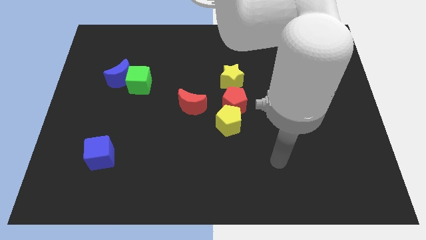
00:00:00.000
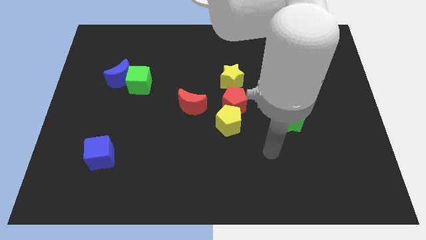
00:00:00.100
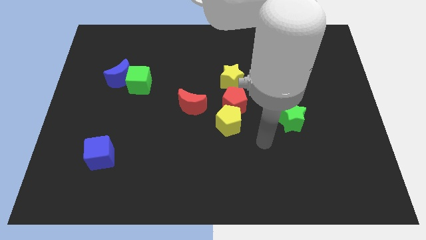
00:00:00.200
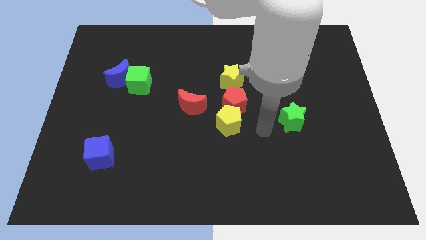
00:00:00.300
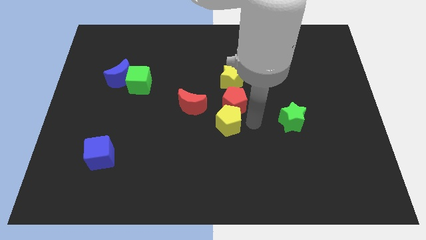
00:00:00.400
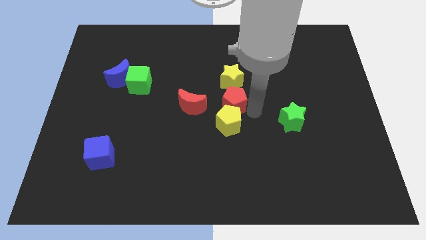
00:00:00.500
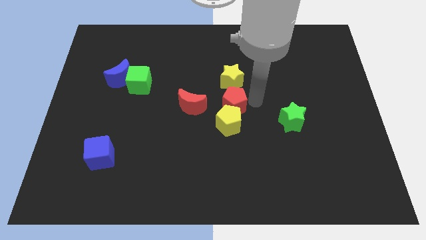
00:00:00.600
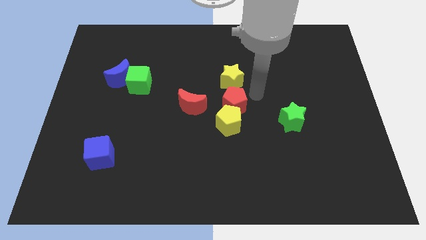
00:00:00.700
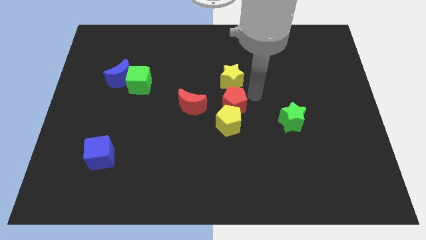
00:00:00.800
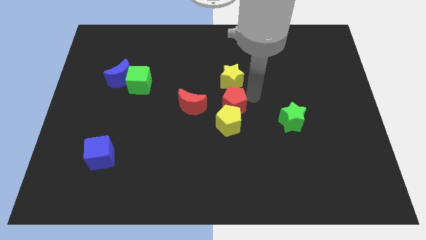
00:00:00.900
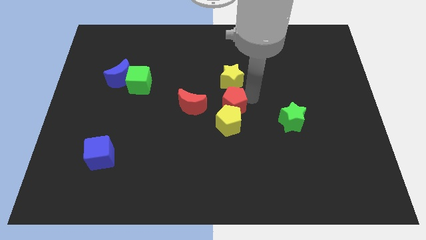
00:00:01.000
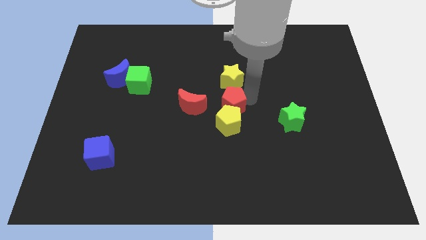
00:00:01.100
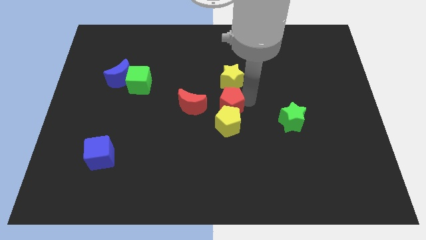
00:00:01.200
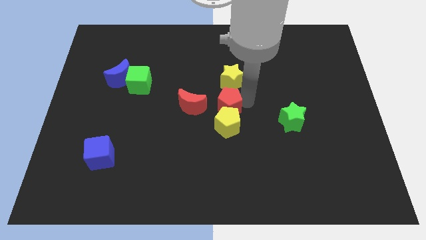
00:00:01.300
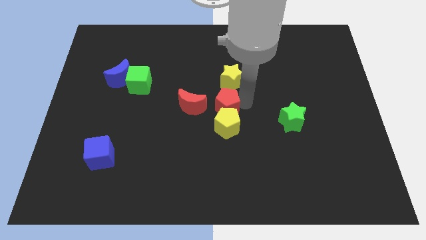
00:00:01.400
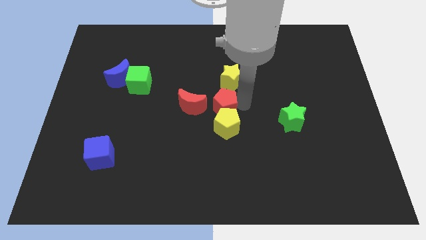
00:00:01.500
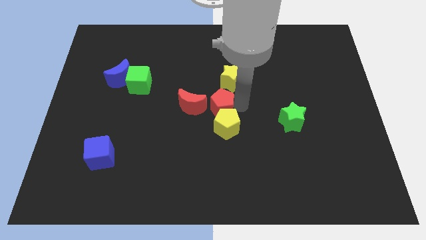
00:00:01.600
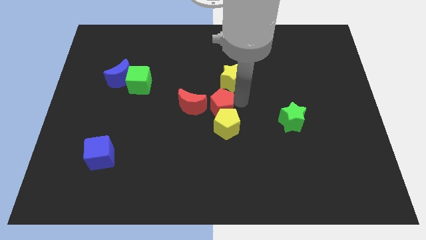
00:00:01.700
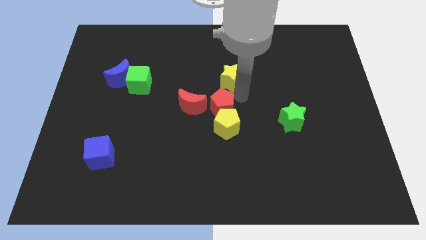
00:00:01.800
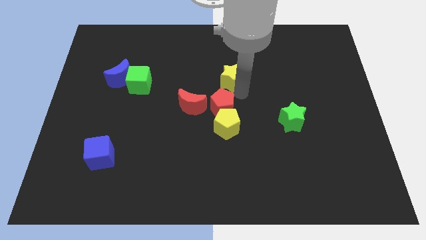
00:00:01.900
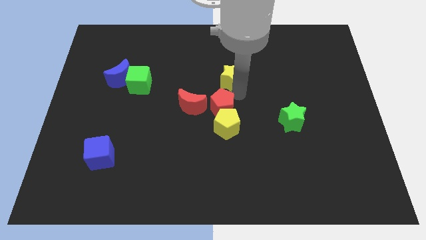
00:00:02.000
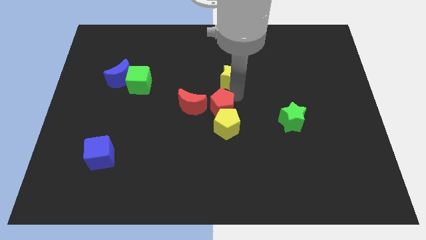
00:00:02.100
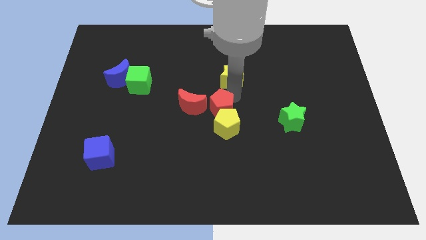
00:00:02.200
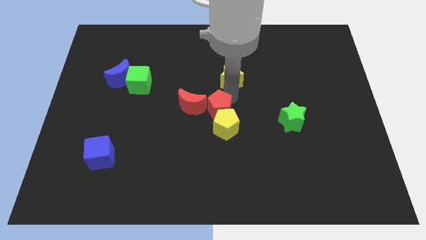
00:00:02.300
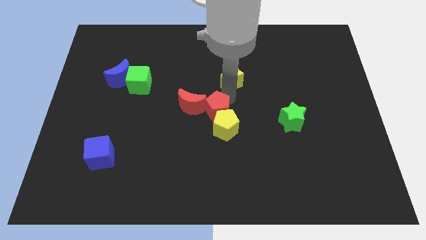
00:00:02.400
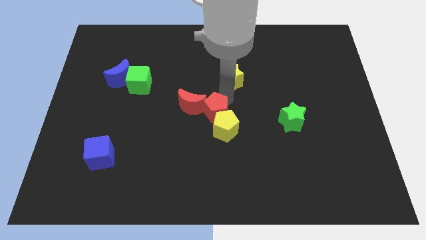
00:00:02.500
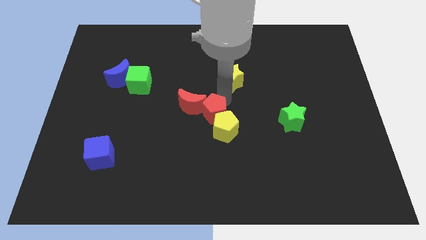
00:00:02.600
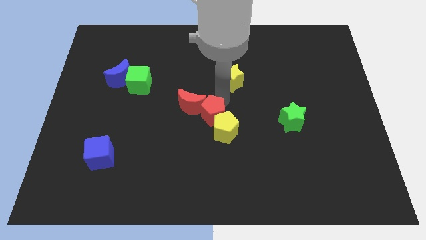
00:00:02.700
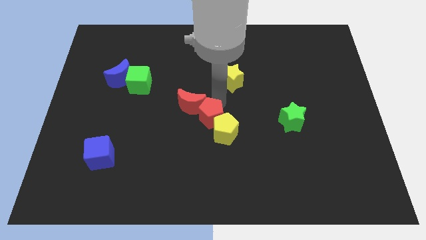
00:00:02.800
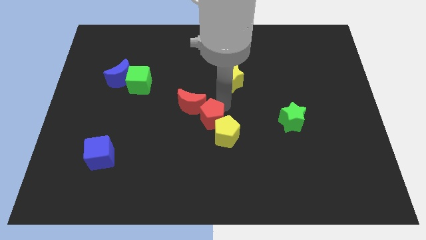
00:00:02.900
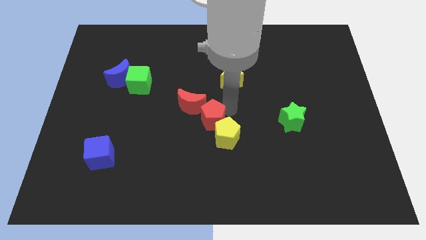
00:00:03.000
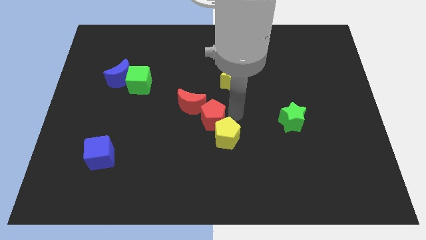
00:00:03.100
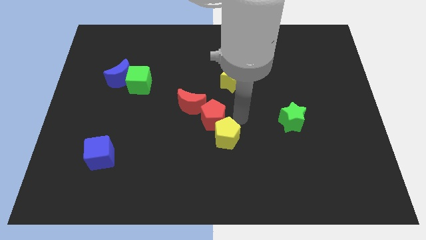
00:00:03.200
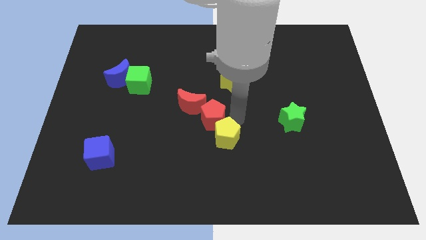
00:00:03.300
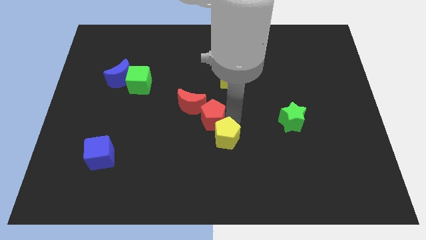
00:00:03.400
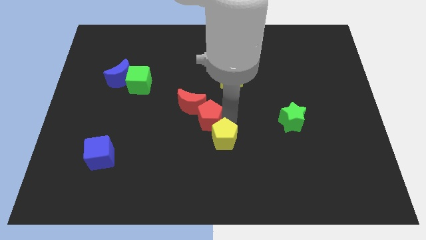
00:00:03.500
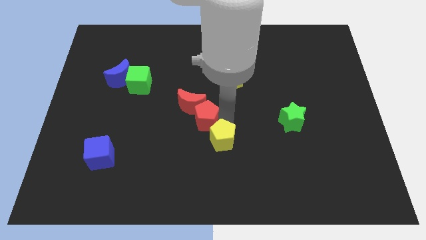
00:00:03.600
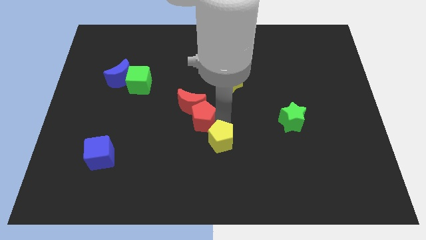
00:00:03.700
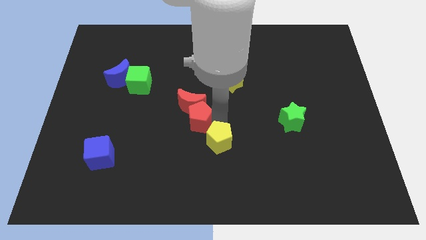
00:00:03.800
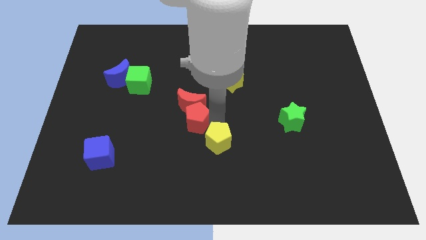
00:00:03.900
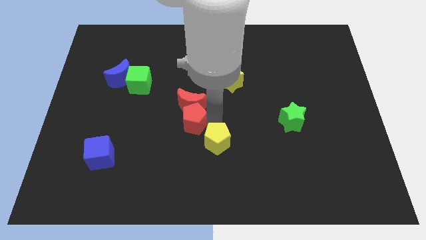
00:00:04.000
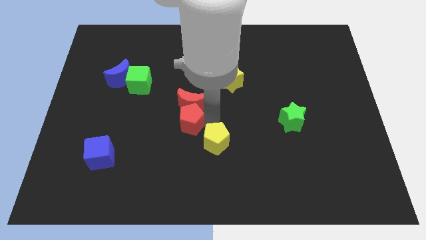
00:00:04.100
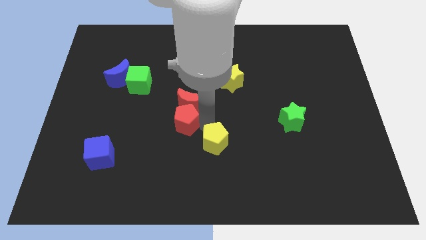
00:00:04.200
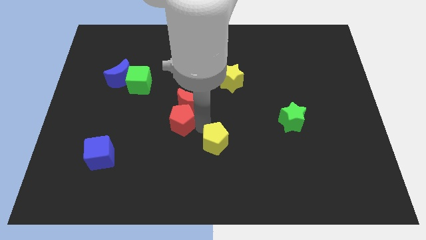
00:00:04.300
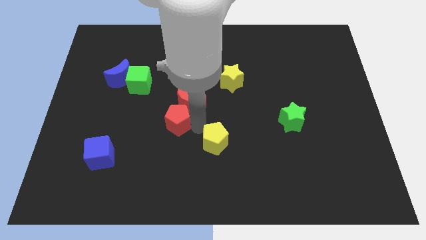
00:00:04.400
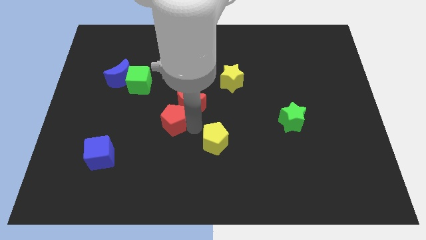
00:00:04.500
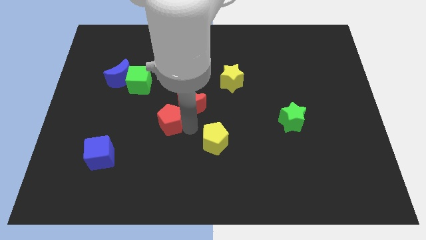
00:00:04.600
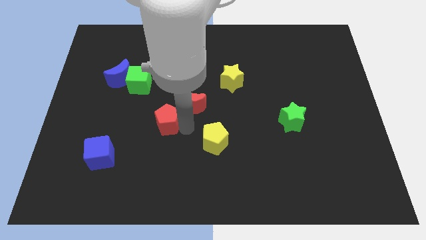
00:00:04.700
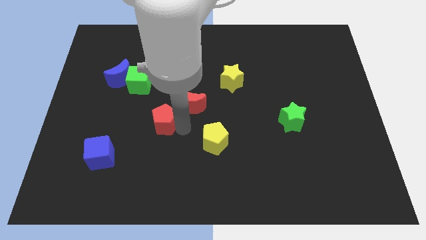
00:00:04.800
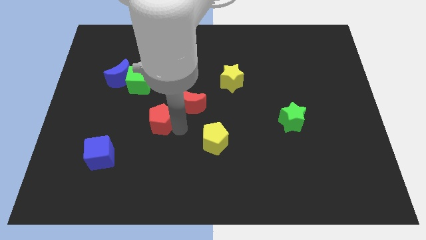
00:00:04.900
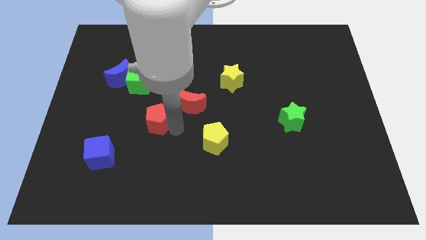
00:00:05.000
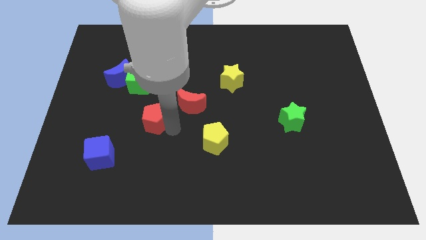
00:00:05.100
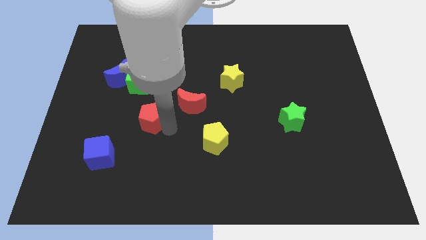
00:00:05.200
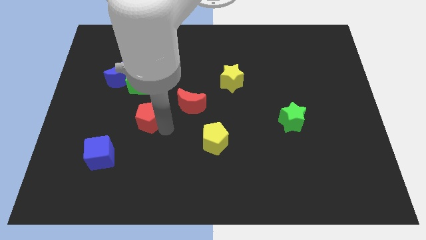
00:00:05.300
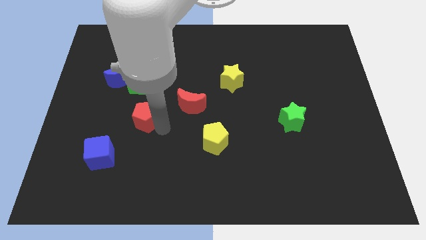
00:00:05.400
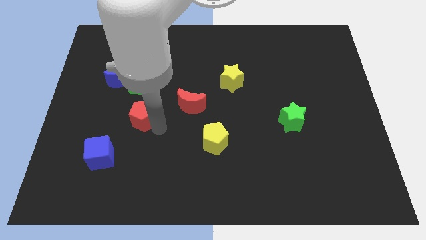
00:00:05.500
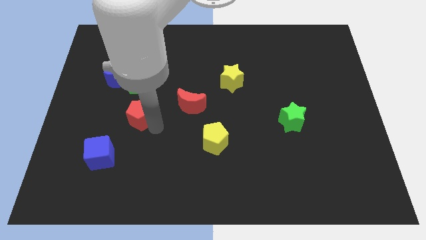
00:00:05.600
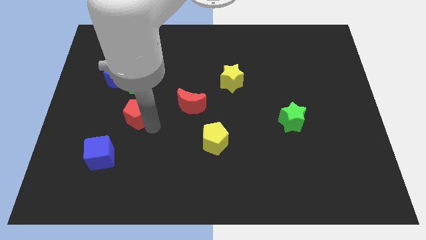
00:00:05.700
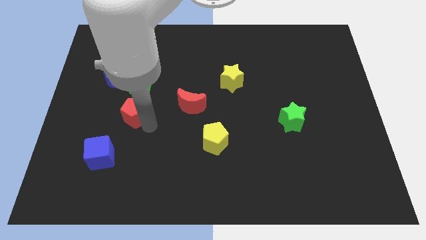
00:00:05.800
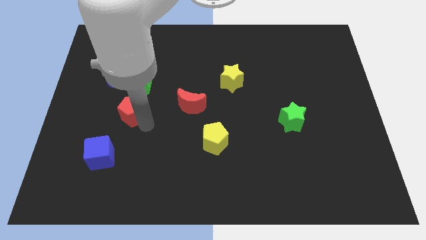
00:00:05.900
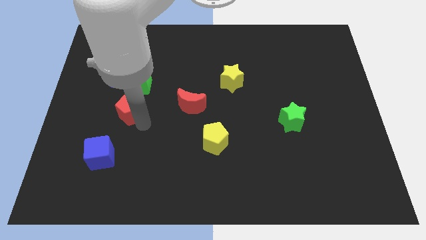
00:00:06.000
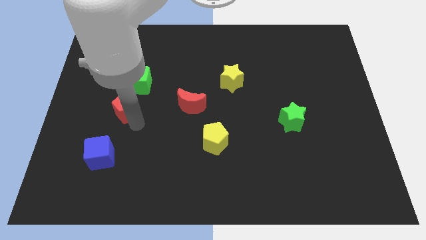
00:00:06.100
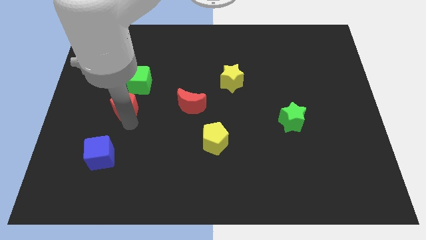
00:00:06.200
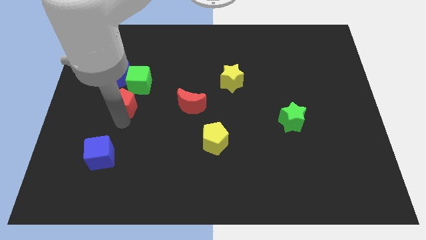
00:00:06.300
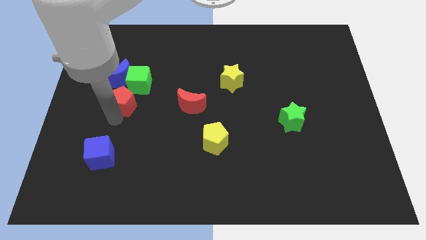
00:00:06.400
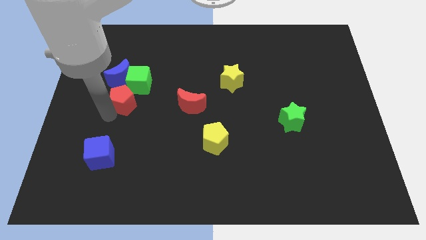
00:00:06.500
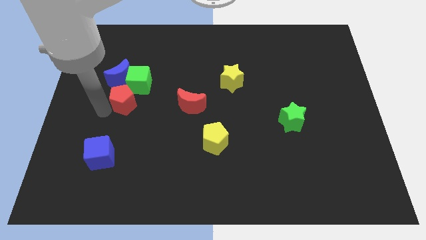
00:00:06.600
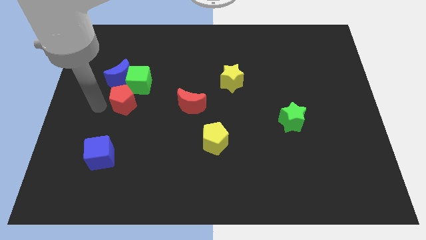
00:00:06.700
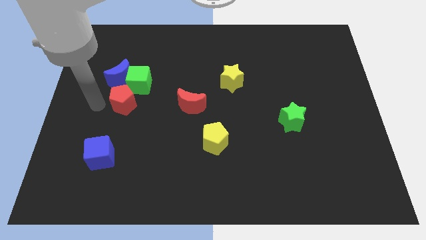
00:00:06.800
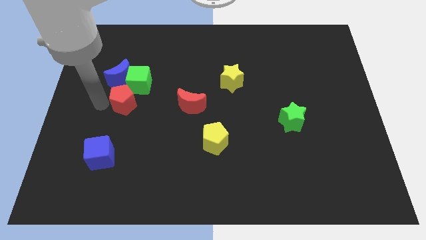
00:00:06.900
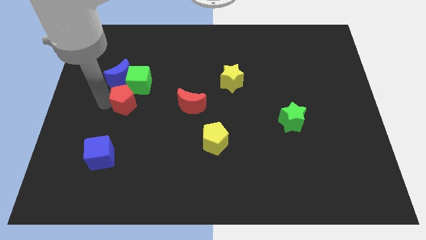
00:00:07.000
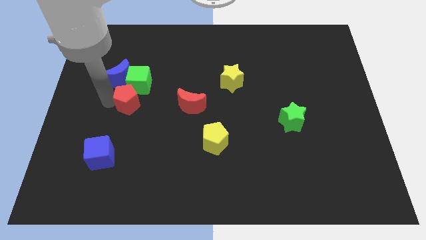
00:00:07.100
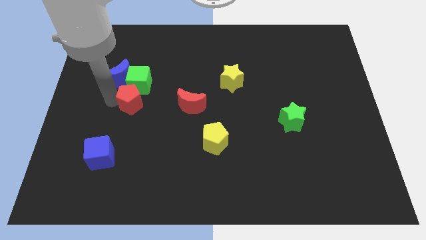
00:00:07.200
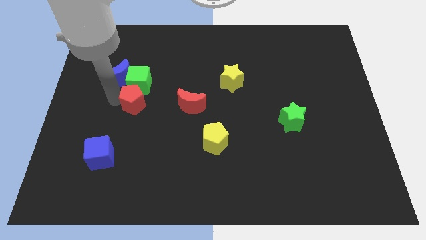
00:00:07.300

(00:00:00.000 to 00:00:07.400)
slide the red pentagon to the bottom right of the green cube
